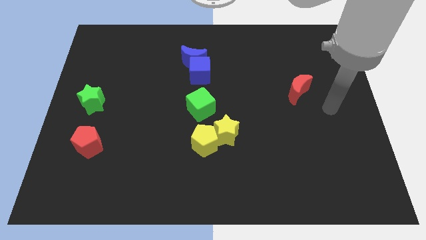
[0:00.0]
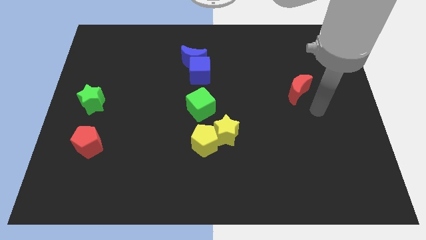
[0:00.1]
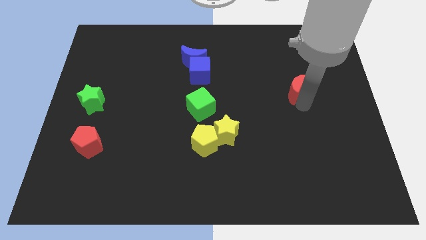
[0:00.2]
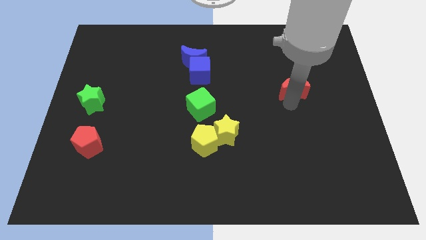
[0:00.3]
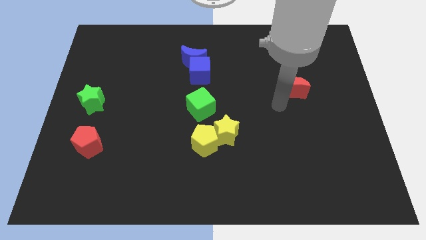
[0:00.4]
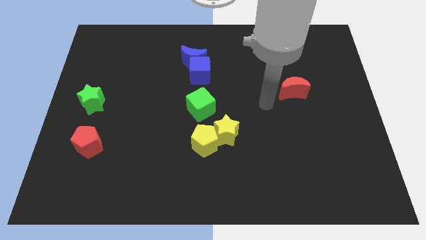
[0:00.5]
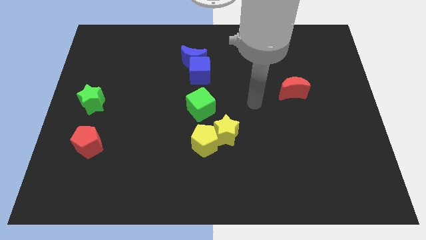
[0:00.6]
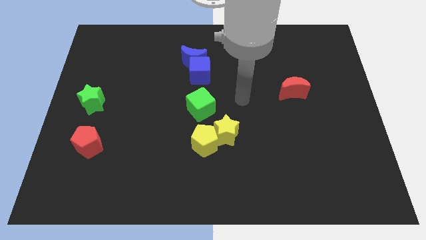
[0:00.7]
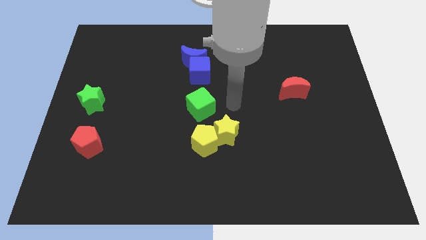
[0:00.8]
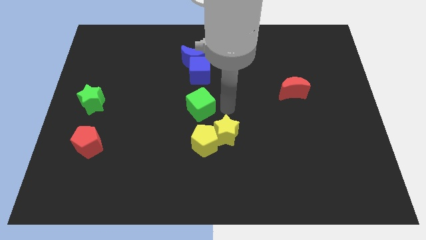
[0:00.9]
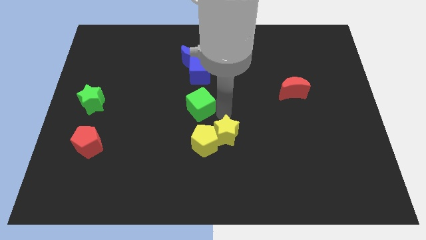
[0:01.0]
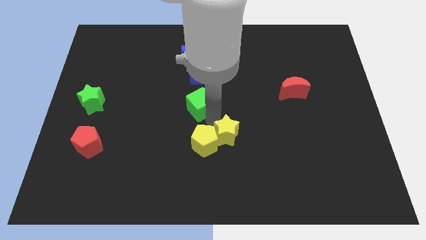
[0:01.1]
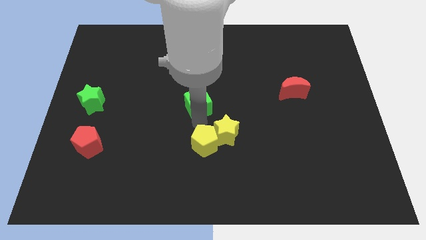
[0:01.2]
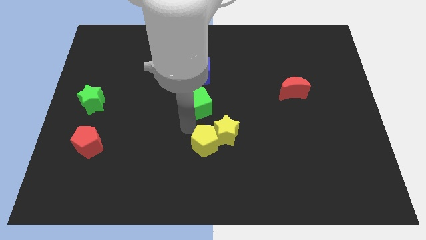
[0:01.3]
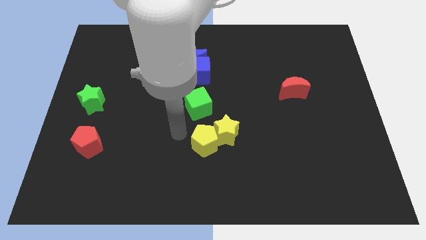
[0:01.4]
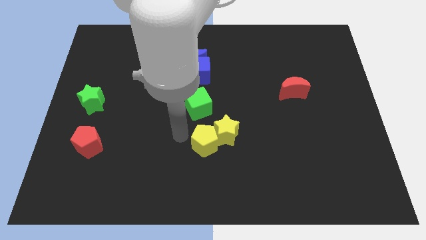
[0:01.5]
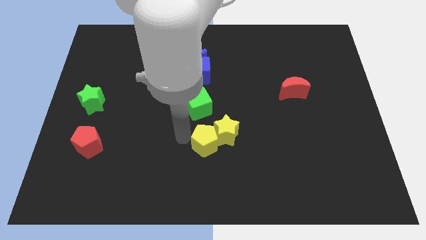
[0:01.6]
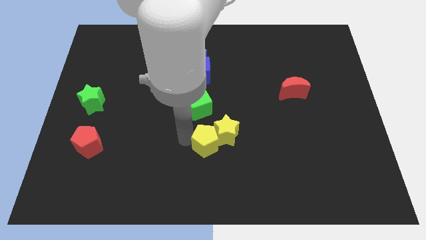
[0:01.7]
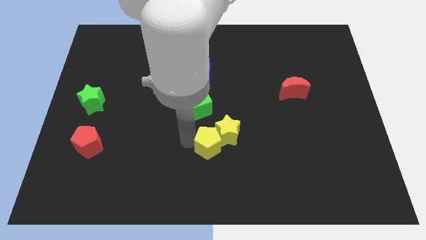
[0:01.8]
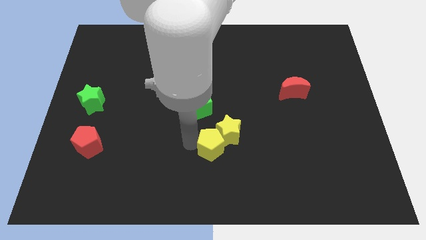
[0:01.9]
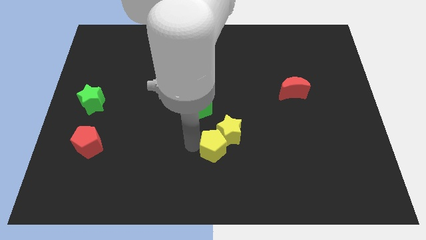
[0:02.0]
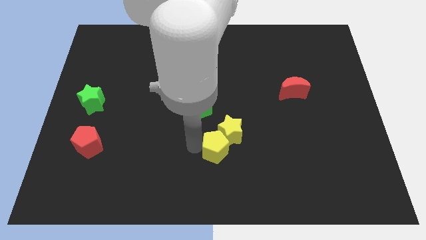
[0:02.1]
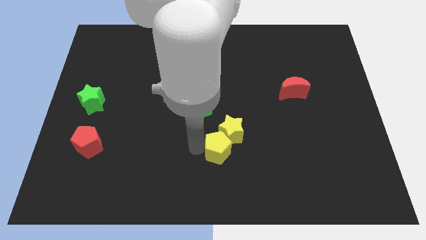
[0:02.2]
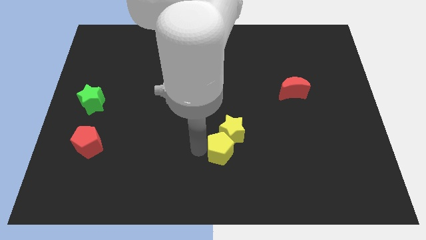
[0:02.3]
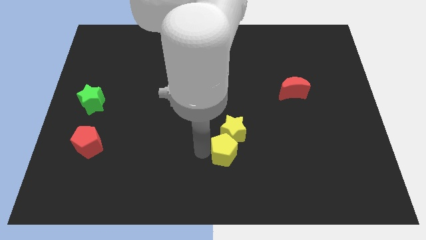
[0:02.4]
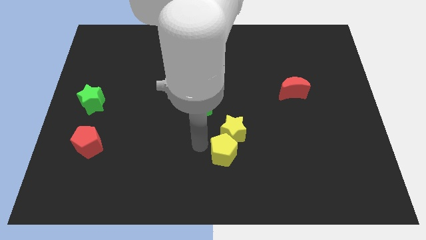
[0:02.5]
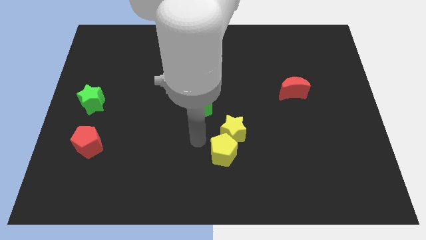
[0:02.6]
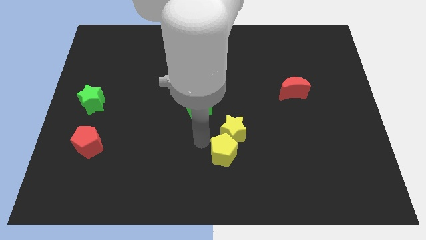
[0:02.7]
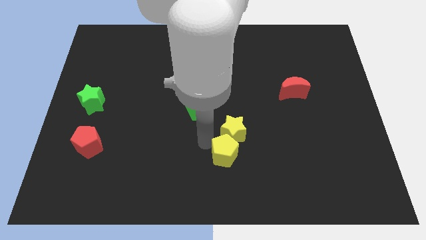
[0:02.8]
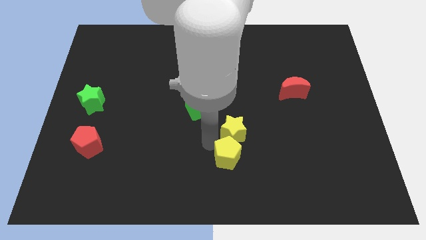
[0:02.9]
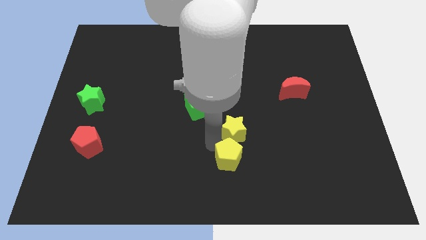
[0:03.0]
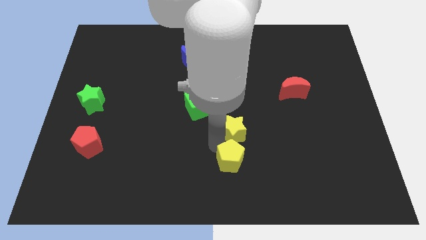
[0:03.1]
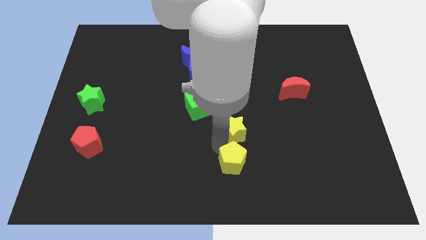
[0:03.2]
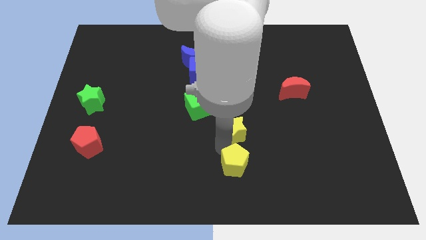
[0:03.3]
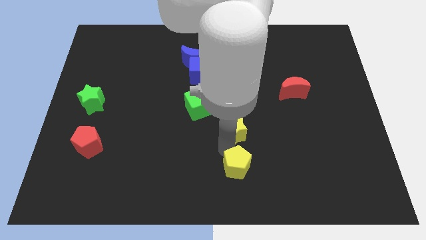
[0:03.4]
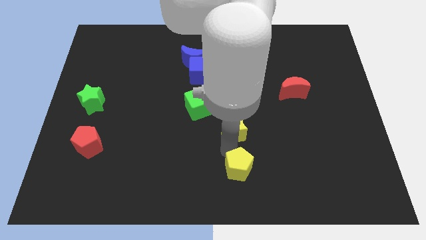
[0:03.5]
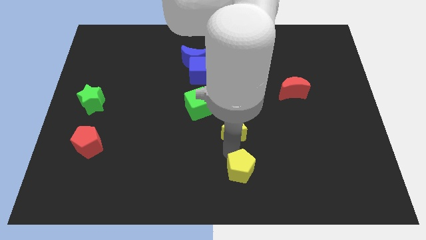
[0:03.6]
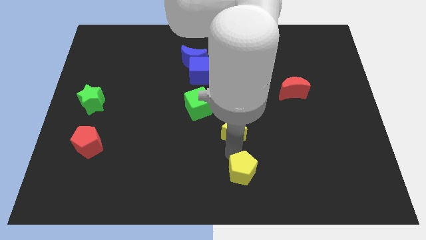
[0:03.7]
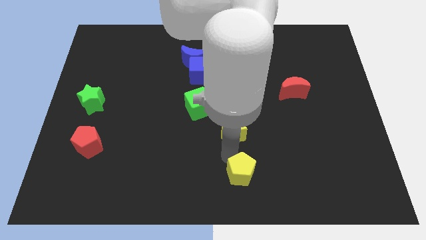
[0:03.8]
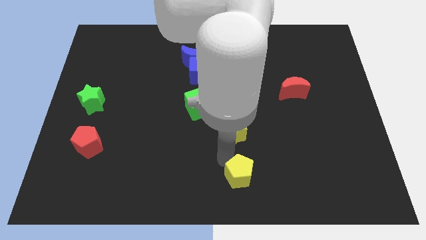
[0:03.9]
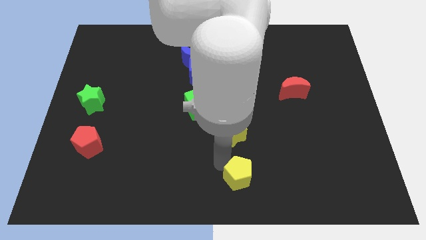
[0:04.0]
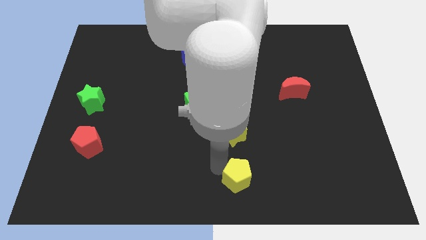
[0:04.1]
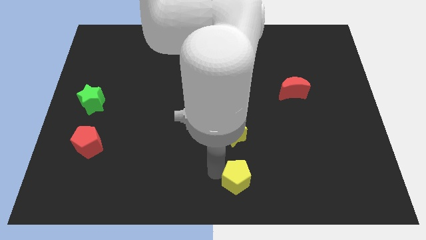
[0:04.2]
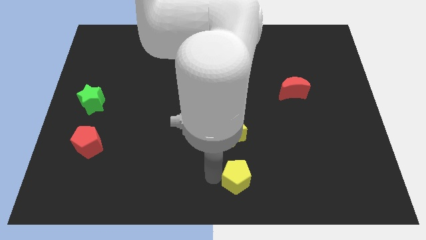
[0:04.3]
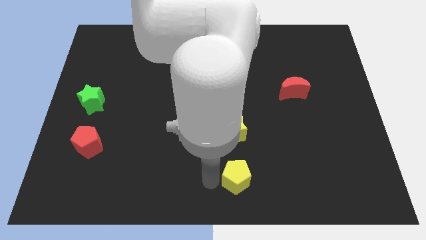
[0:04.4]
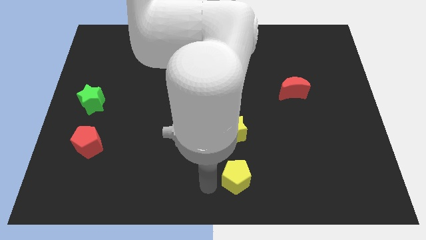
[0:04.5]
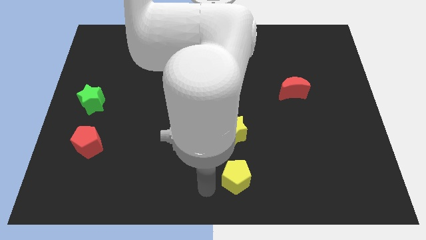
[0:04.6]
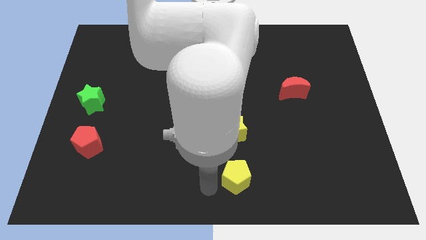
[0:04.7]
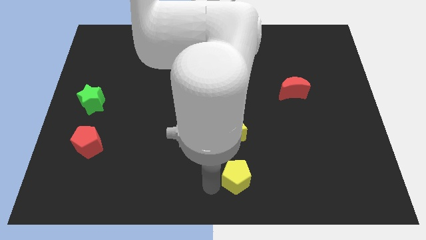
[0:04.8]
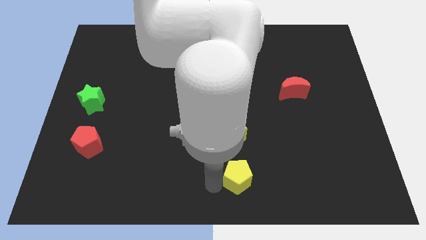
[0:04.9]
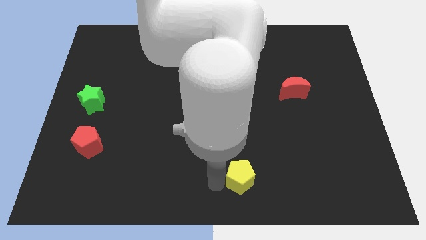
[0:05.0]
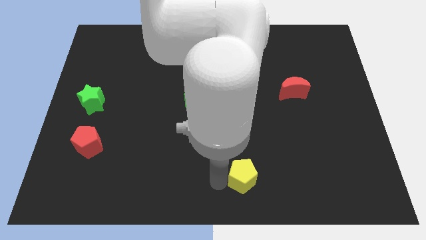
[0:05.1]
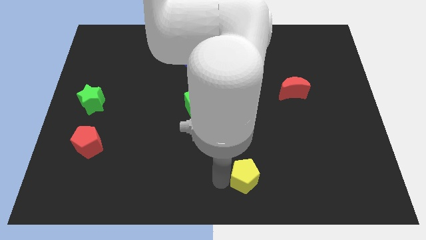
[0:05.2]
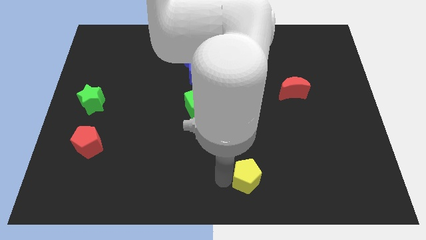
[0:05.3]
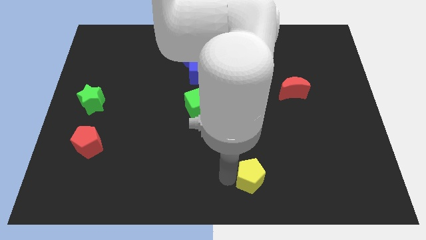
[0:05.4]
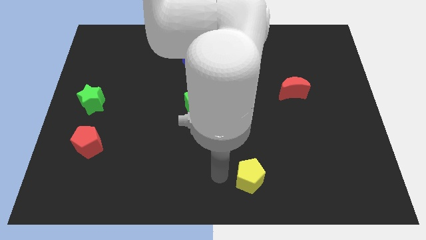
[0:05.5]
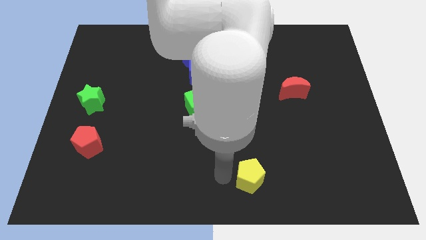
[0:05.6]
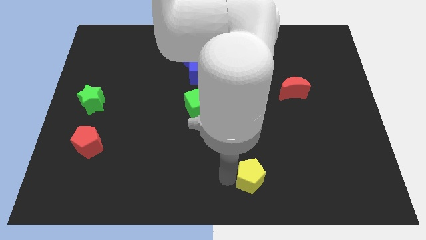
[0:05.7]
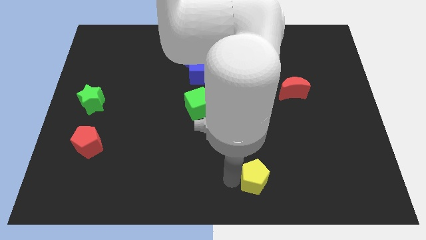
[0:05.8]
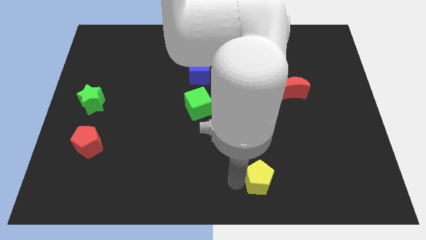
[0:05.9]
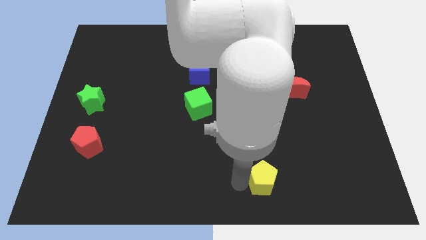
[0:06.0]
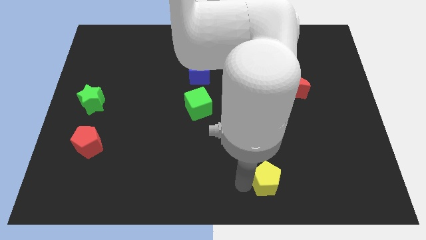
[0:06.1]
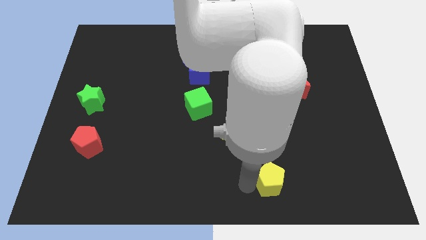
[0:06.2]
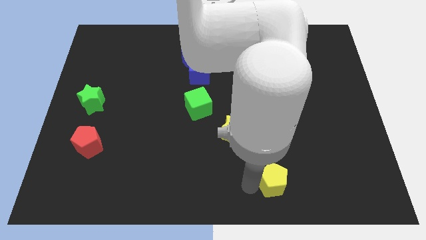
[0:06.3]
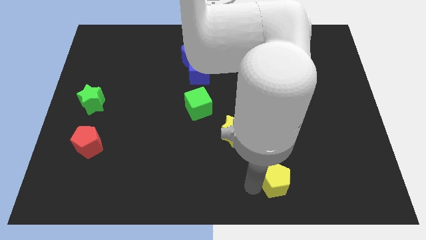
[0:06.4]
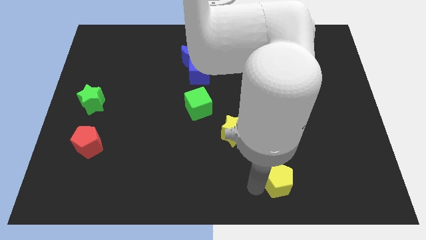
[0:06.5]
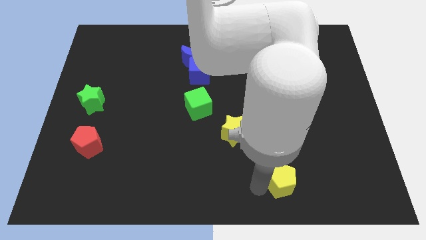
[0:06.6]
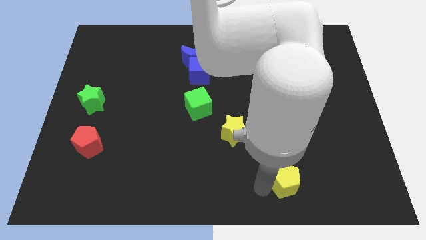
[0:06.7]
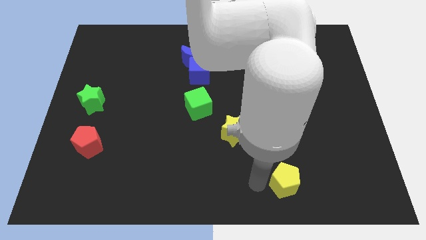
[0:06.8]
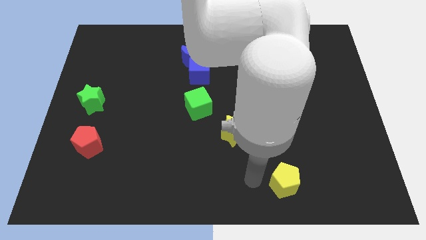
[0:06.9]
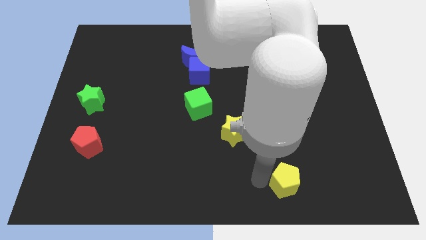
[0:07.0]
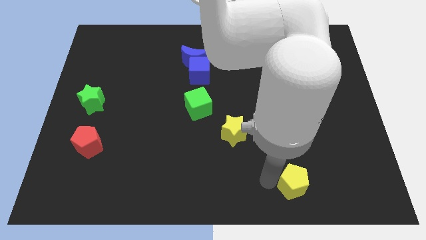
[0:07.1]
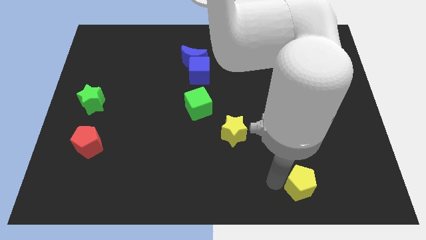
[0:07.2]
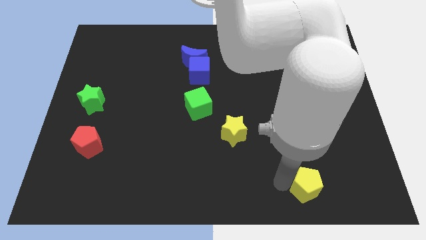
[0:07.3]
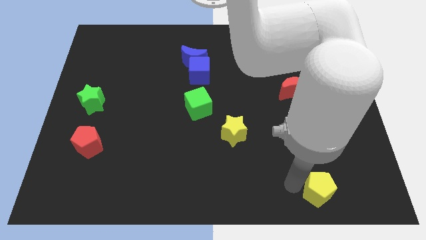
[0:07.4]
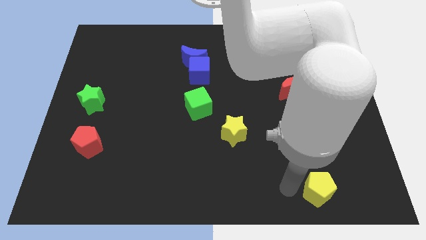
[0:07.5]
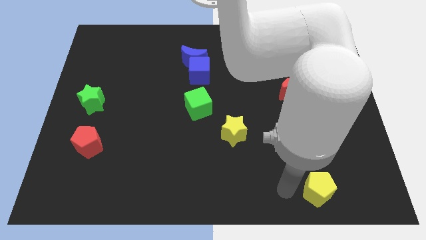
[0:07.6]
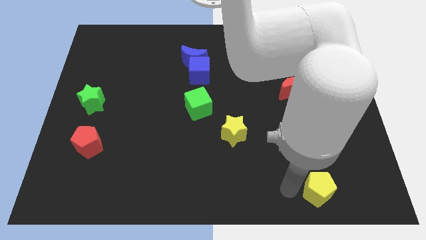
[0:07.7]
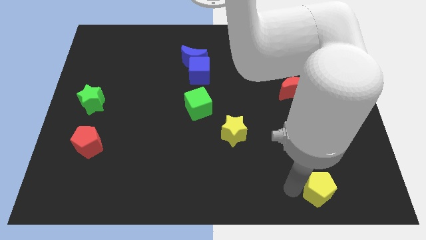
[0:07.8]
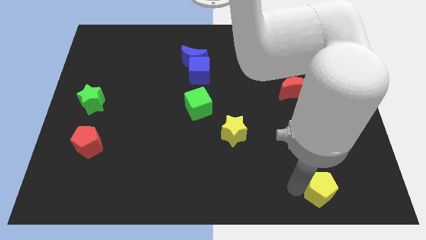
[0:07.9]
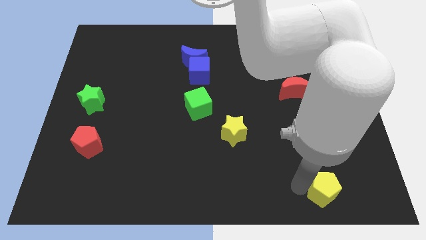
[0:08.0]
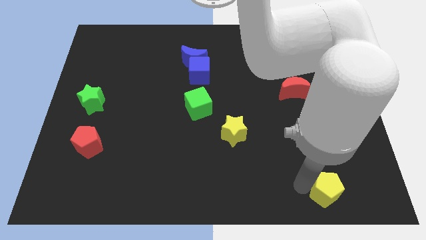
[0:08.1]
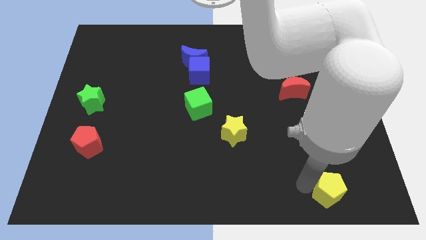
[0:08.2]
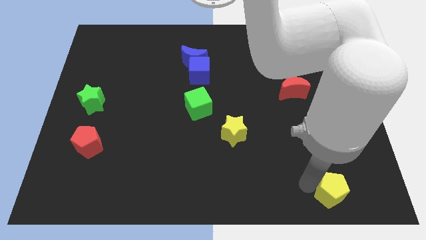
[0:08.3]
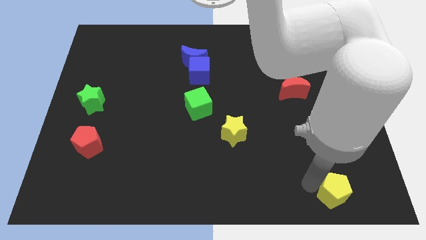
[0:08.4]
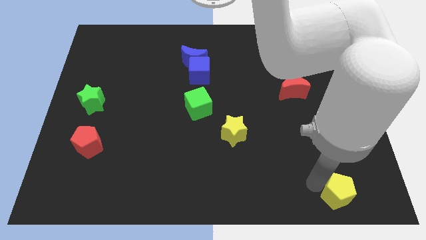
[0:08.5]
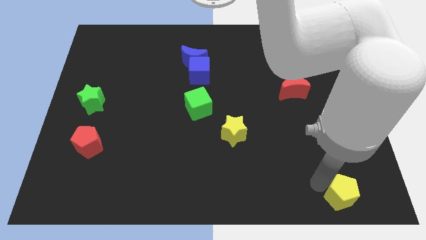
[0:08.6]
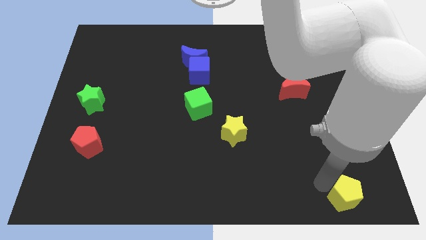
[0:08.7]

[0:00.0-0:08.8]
move the yellow pentagon to the bottom right
